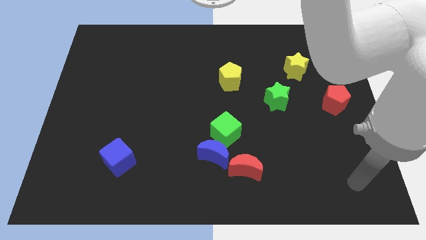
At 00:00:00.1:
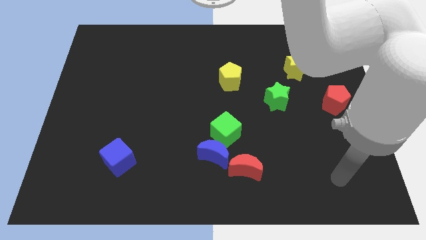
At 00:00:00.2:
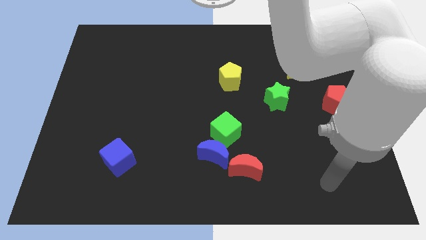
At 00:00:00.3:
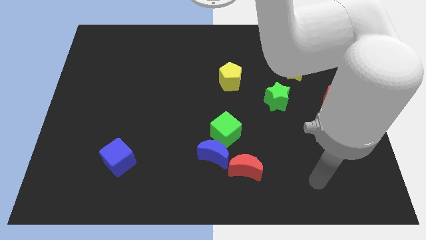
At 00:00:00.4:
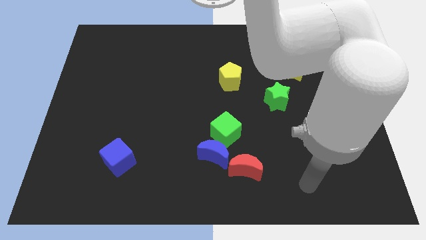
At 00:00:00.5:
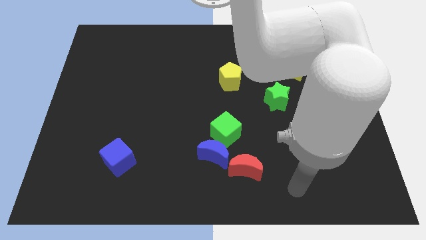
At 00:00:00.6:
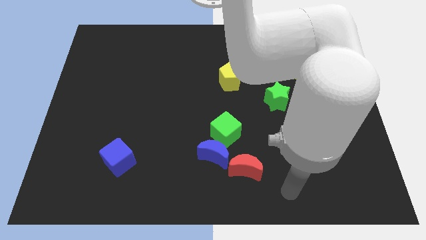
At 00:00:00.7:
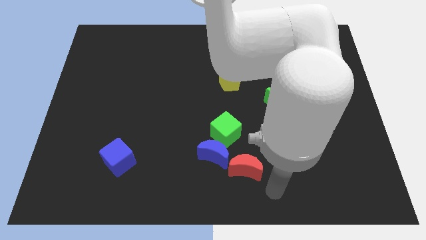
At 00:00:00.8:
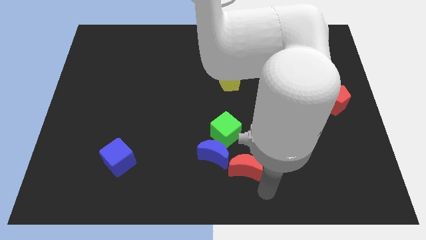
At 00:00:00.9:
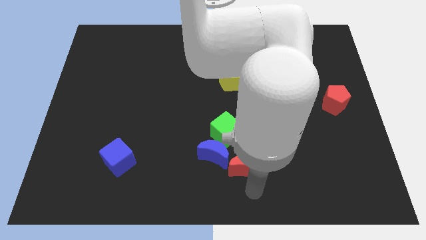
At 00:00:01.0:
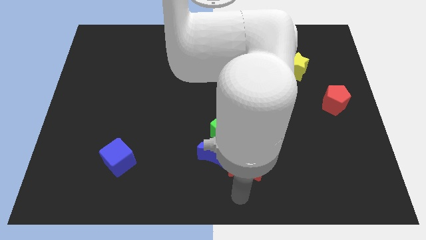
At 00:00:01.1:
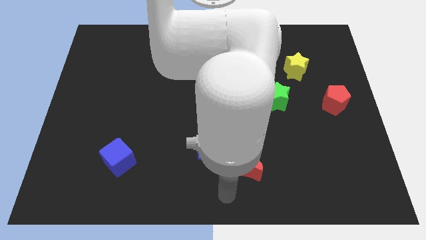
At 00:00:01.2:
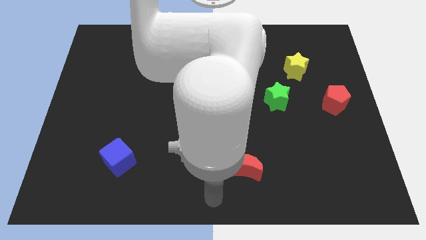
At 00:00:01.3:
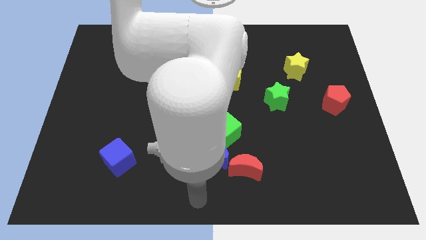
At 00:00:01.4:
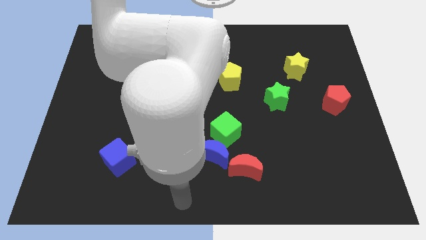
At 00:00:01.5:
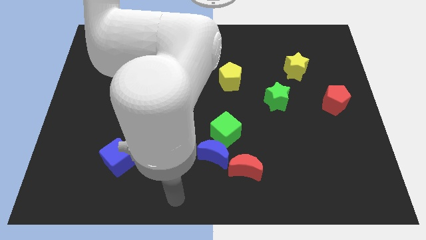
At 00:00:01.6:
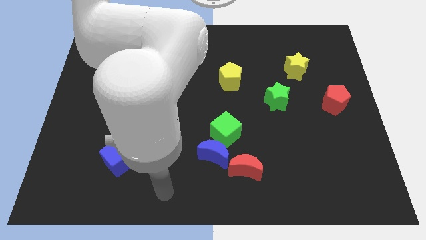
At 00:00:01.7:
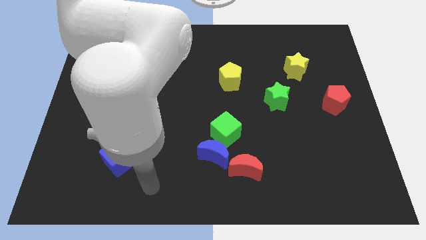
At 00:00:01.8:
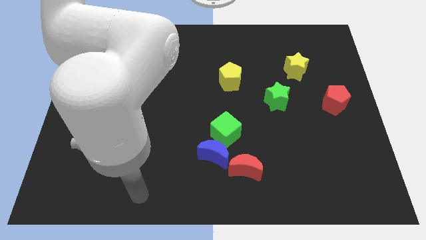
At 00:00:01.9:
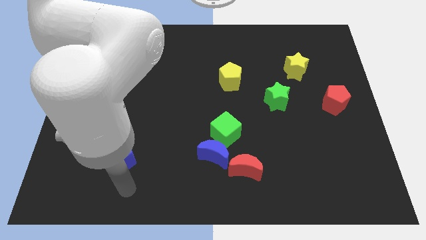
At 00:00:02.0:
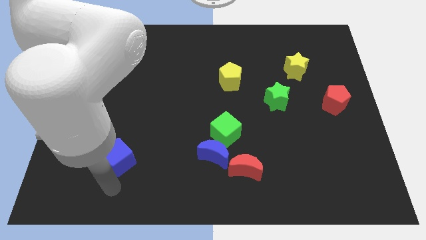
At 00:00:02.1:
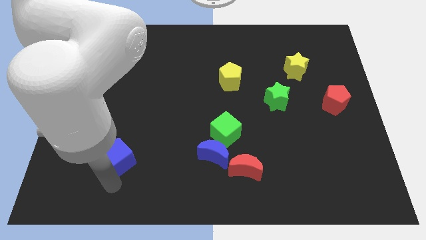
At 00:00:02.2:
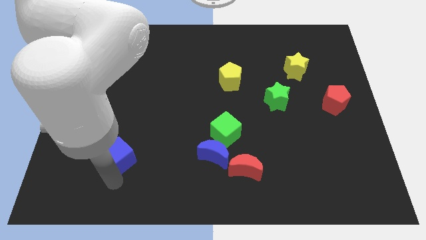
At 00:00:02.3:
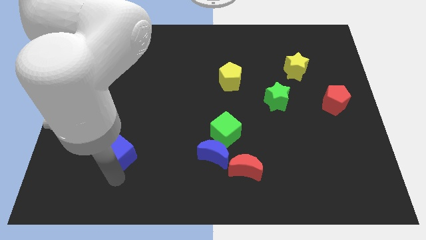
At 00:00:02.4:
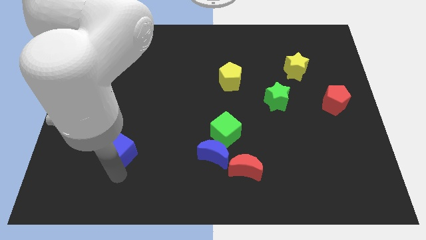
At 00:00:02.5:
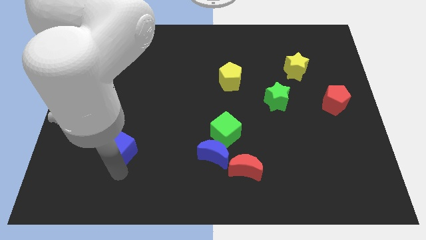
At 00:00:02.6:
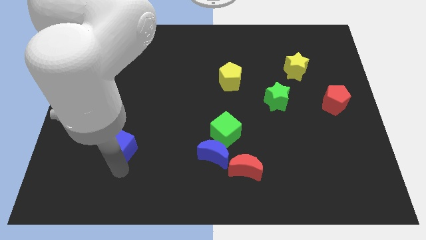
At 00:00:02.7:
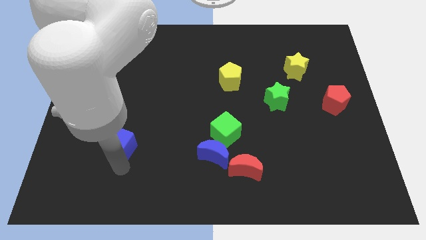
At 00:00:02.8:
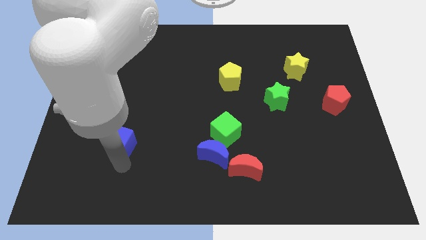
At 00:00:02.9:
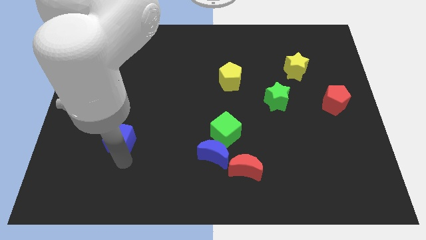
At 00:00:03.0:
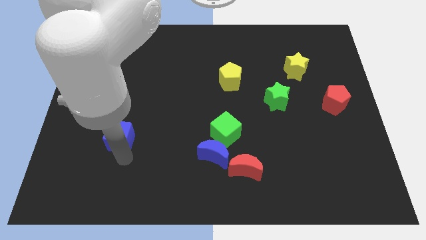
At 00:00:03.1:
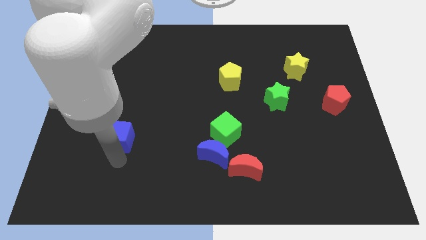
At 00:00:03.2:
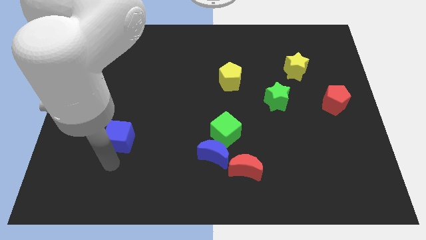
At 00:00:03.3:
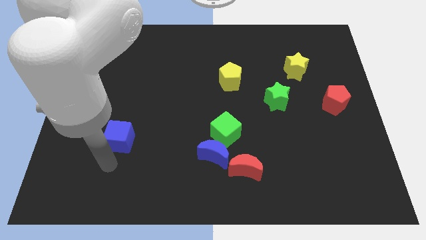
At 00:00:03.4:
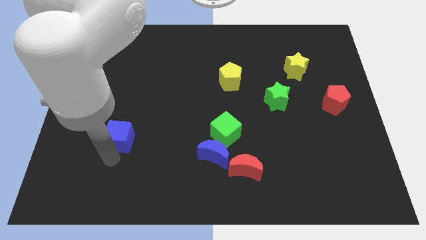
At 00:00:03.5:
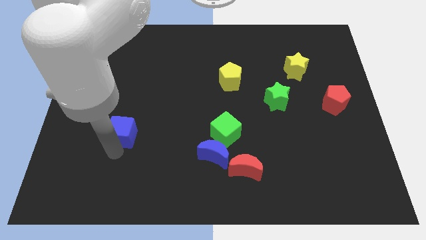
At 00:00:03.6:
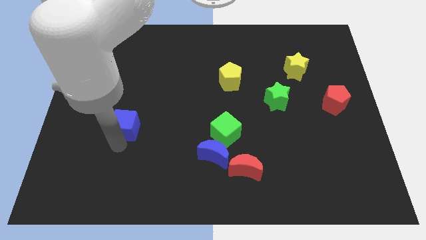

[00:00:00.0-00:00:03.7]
slide the blue cube upwards a little bit

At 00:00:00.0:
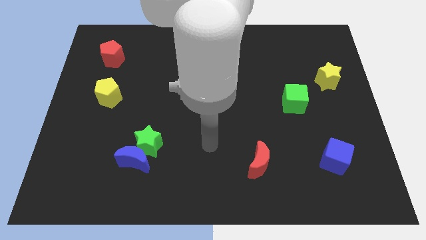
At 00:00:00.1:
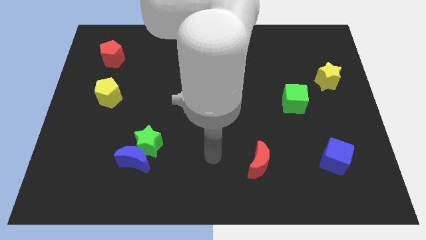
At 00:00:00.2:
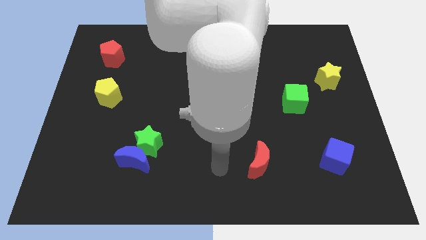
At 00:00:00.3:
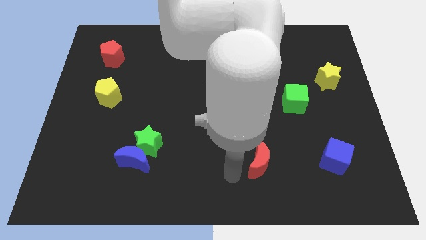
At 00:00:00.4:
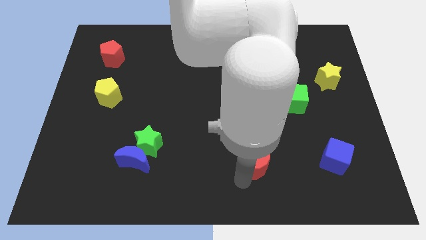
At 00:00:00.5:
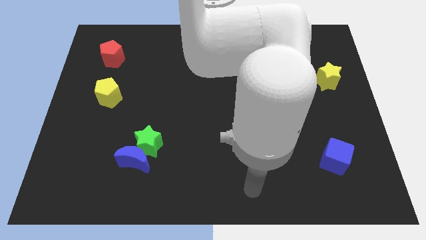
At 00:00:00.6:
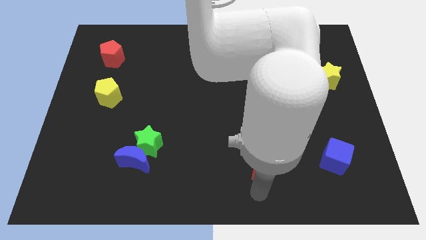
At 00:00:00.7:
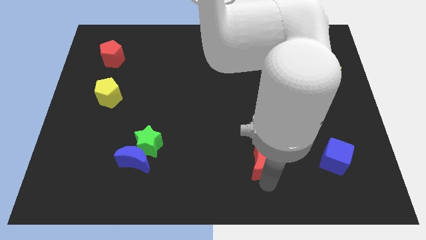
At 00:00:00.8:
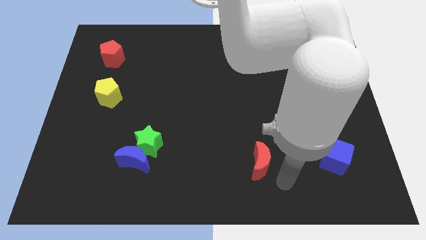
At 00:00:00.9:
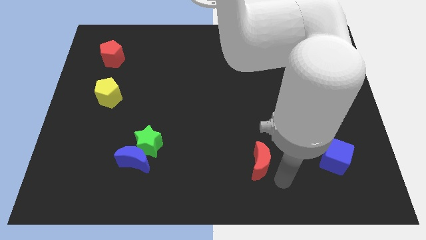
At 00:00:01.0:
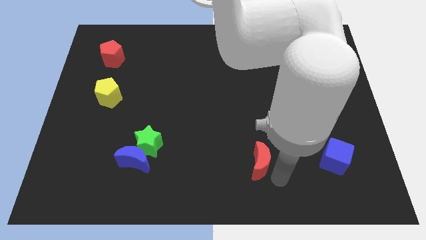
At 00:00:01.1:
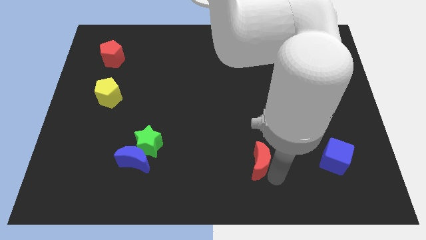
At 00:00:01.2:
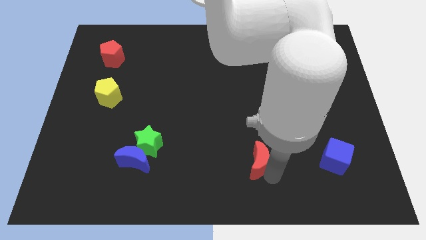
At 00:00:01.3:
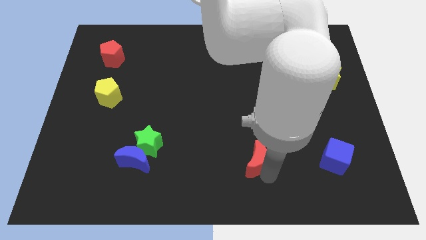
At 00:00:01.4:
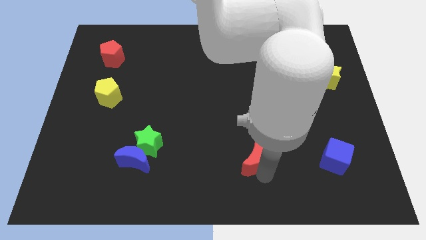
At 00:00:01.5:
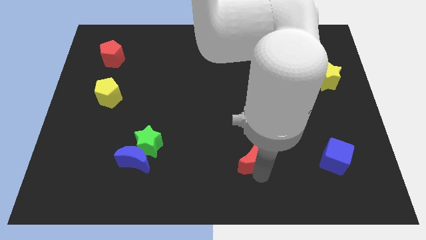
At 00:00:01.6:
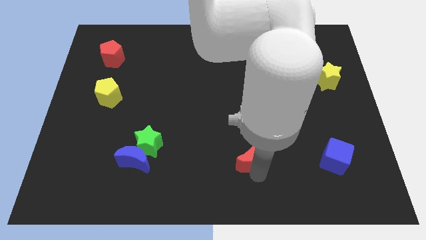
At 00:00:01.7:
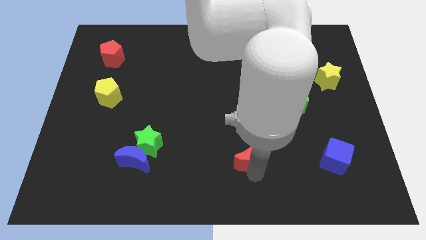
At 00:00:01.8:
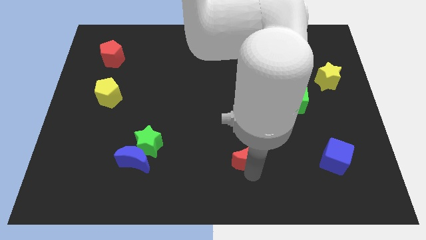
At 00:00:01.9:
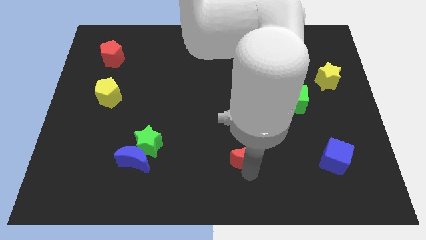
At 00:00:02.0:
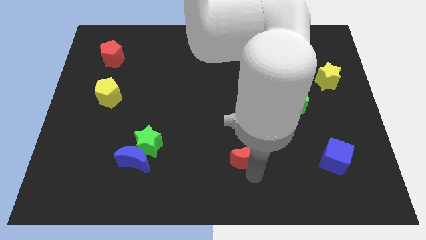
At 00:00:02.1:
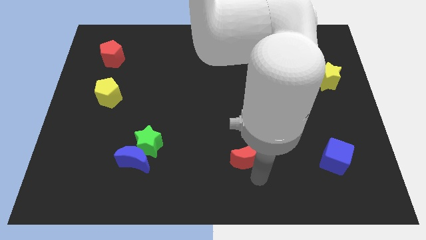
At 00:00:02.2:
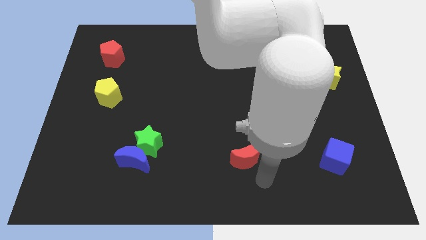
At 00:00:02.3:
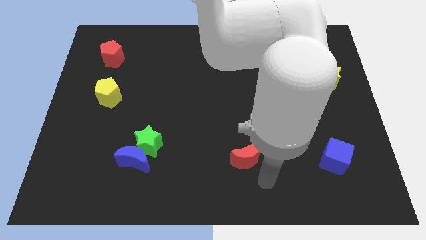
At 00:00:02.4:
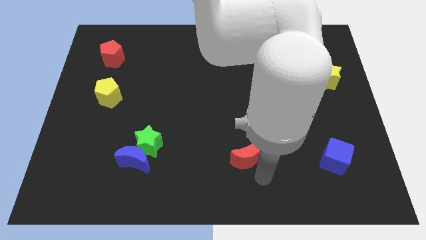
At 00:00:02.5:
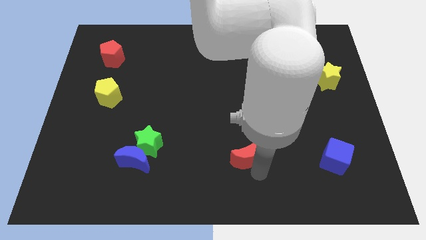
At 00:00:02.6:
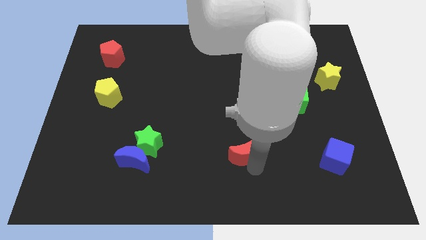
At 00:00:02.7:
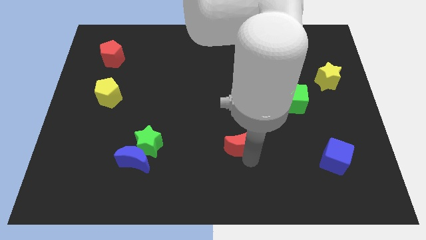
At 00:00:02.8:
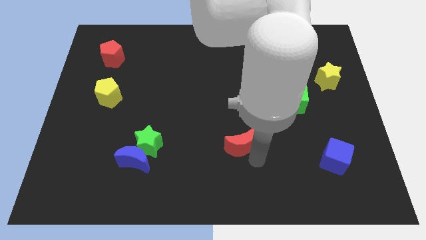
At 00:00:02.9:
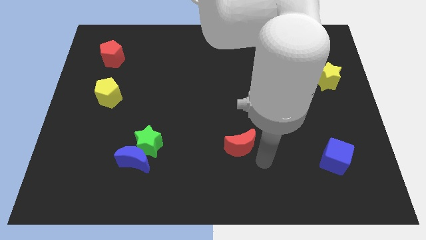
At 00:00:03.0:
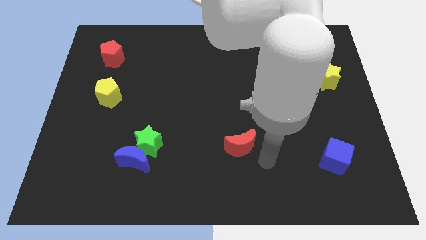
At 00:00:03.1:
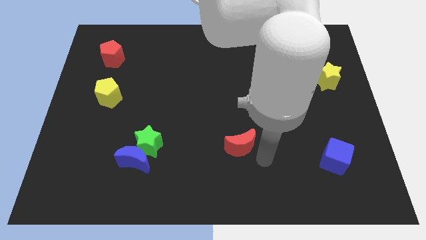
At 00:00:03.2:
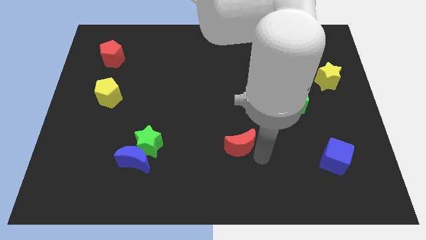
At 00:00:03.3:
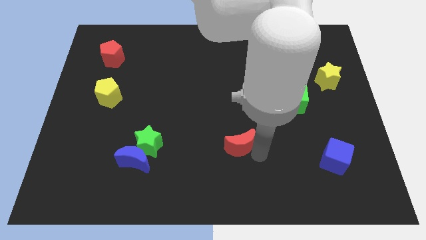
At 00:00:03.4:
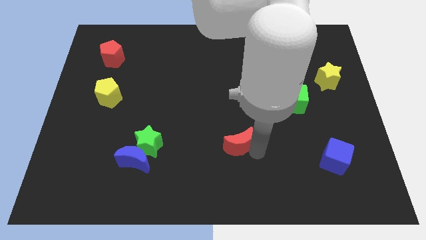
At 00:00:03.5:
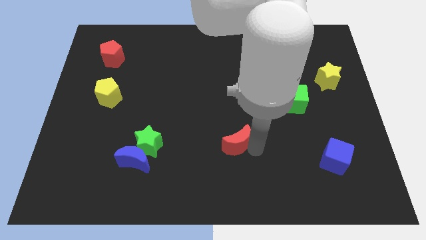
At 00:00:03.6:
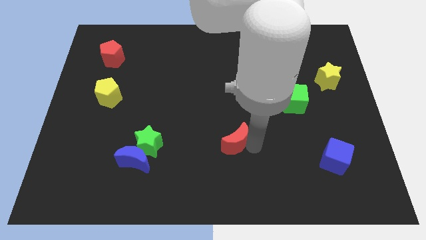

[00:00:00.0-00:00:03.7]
move the red moon a little upwards and then left

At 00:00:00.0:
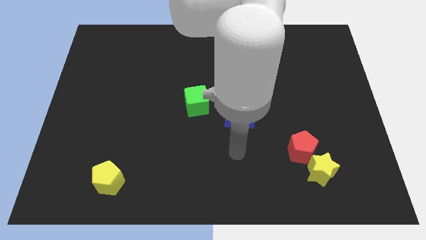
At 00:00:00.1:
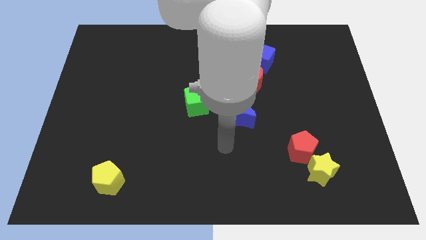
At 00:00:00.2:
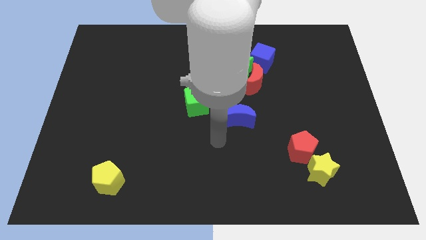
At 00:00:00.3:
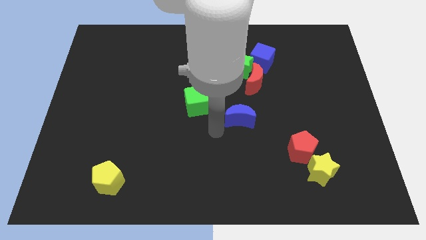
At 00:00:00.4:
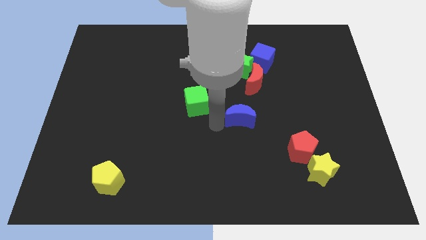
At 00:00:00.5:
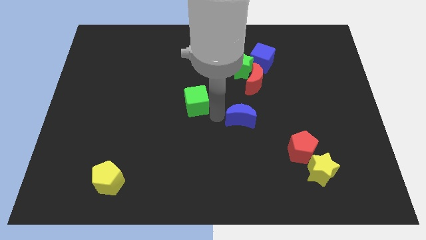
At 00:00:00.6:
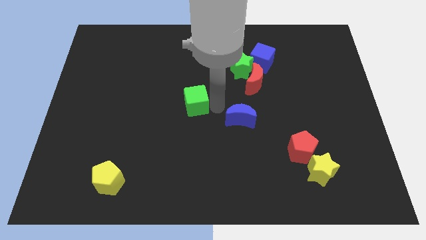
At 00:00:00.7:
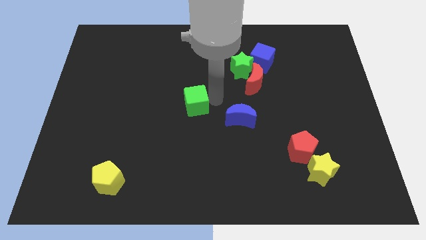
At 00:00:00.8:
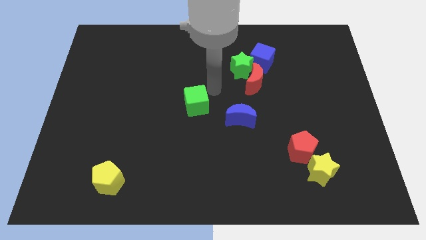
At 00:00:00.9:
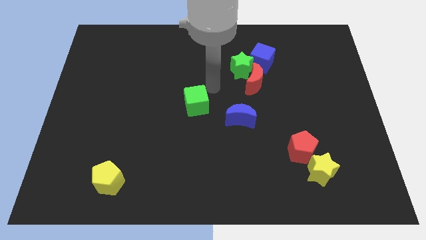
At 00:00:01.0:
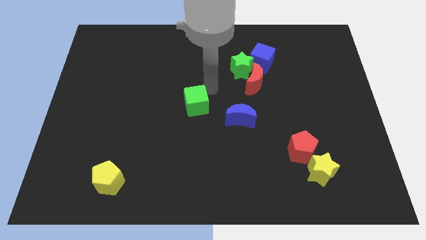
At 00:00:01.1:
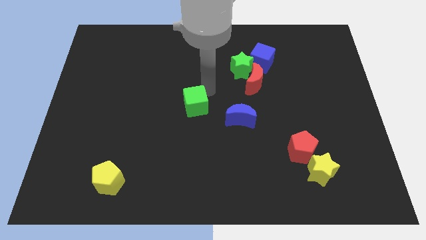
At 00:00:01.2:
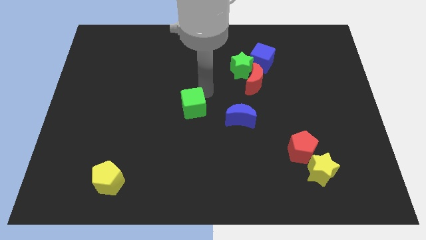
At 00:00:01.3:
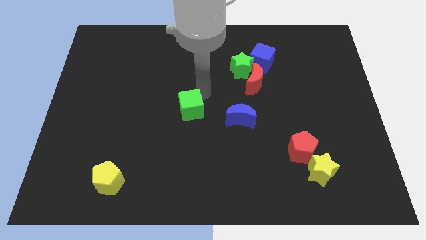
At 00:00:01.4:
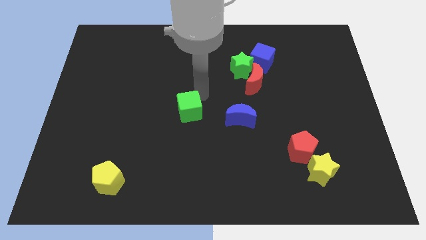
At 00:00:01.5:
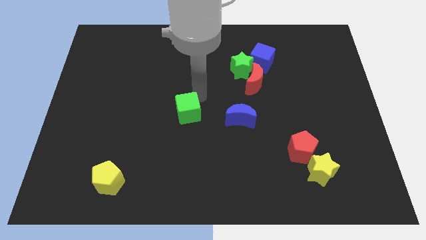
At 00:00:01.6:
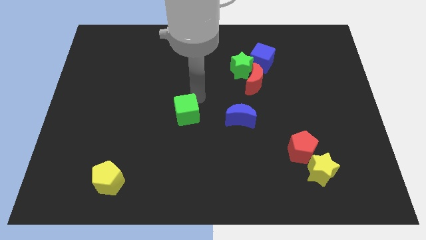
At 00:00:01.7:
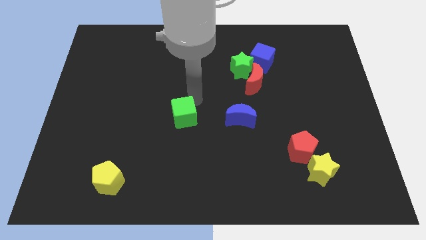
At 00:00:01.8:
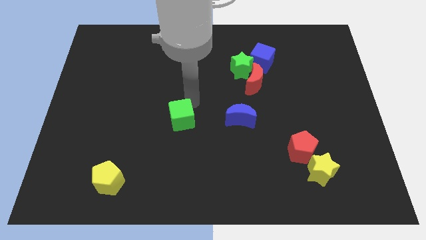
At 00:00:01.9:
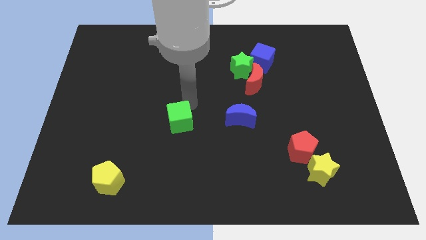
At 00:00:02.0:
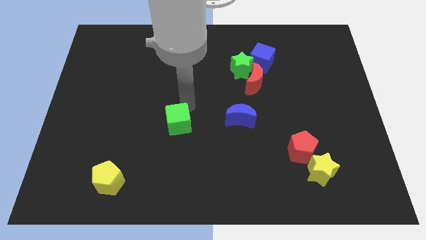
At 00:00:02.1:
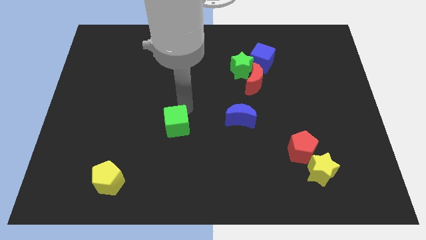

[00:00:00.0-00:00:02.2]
slide the green cube somewhat downwards and to the left
